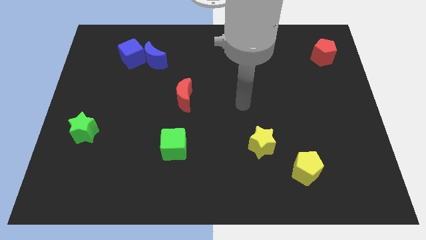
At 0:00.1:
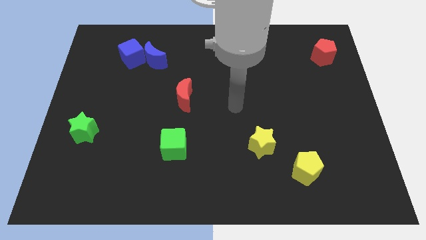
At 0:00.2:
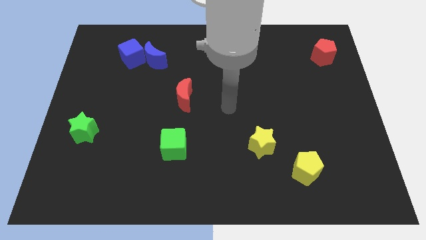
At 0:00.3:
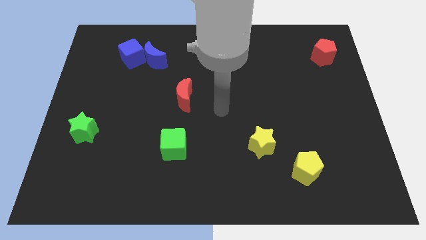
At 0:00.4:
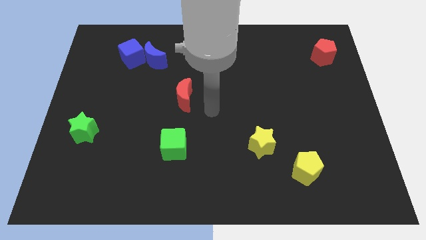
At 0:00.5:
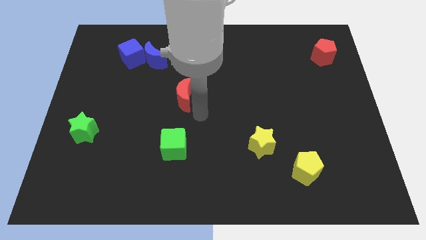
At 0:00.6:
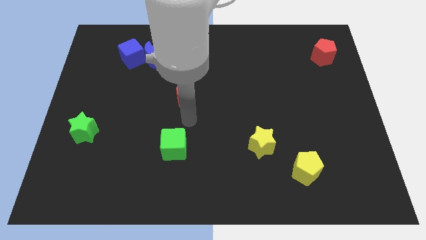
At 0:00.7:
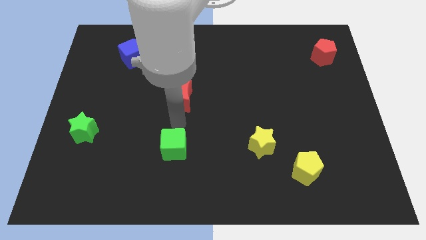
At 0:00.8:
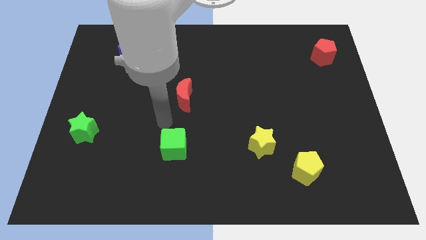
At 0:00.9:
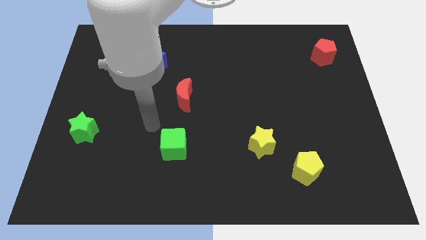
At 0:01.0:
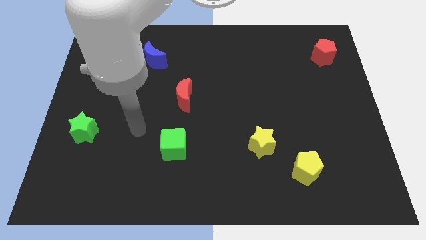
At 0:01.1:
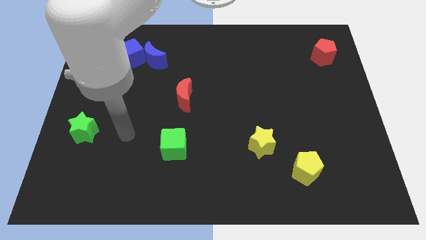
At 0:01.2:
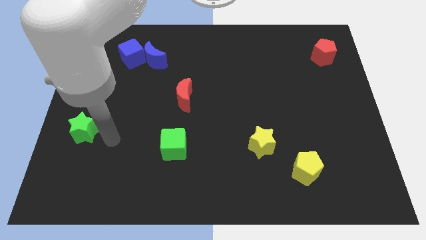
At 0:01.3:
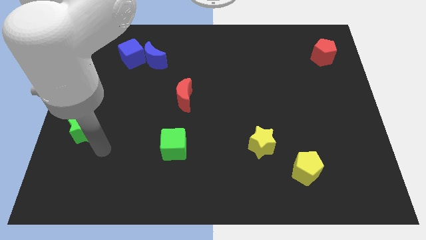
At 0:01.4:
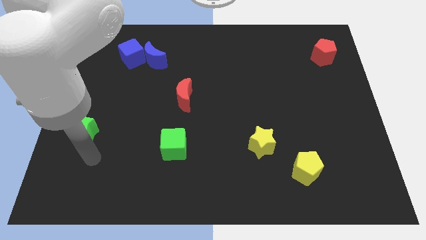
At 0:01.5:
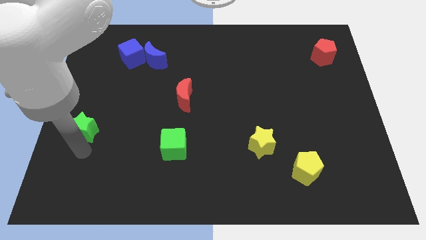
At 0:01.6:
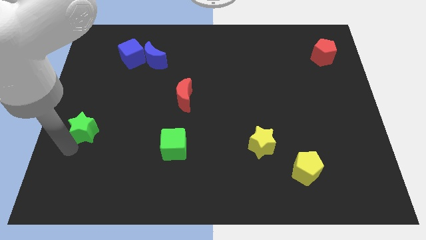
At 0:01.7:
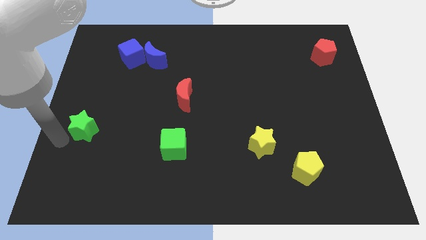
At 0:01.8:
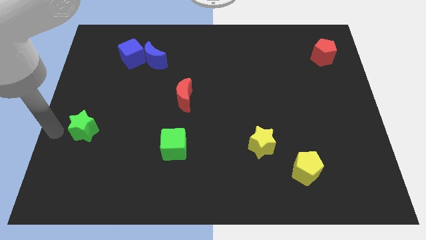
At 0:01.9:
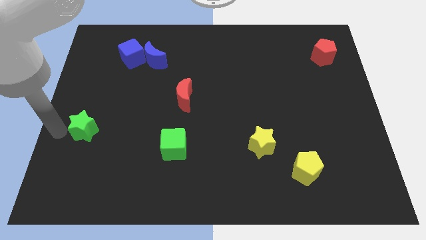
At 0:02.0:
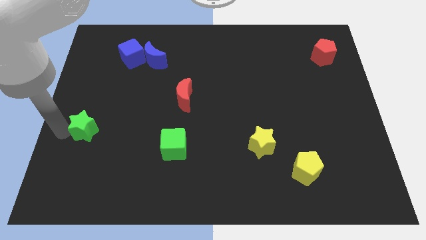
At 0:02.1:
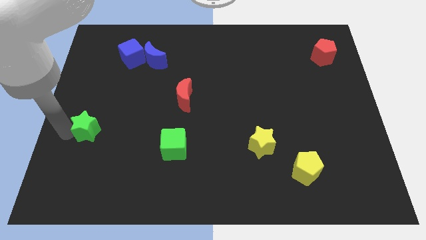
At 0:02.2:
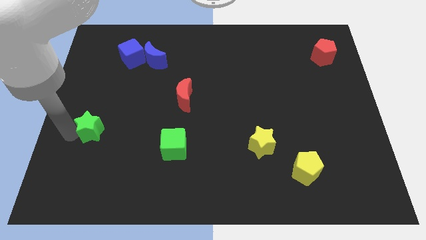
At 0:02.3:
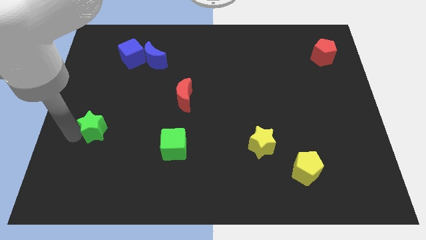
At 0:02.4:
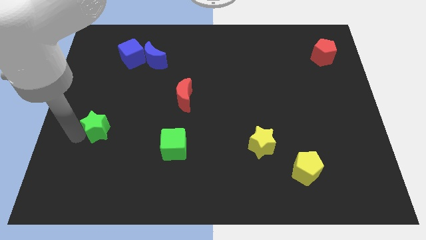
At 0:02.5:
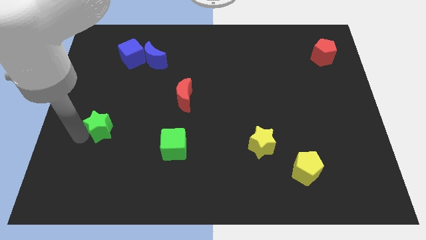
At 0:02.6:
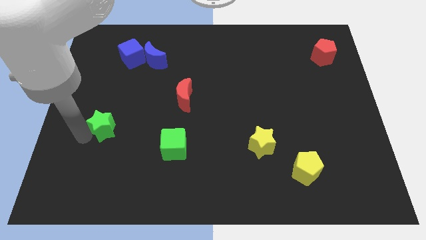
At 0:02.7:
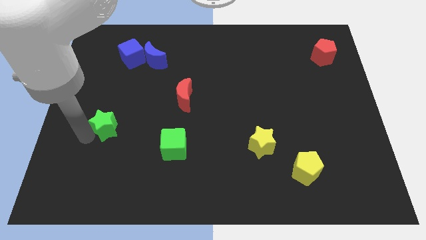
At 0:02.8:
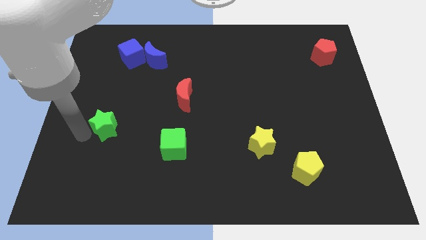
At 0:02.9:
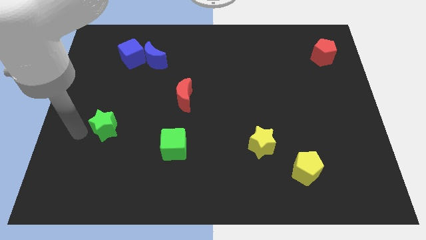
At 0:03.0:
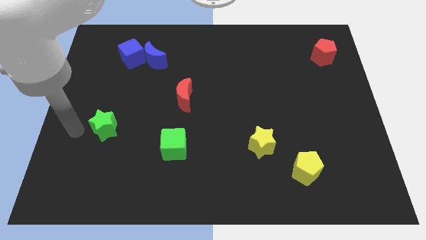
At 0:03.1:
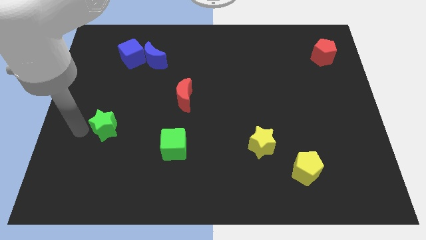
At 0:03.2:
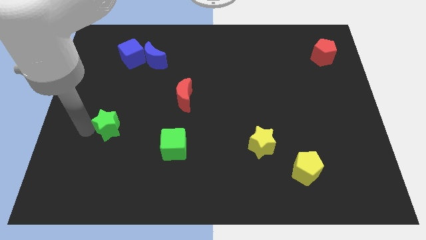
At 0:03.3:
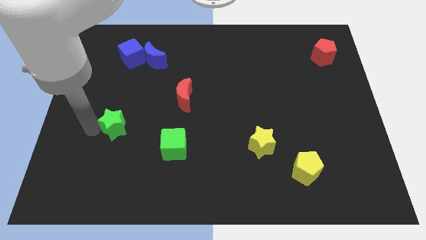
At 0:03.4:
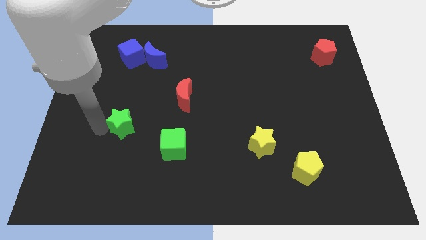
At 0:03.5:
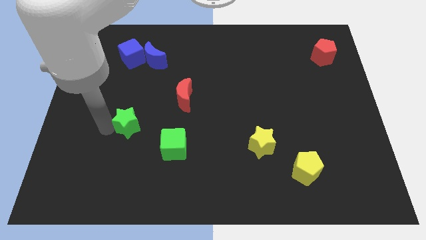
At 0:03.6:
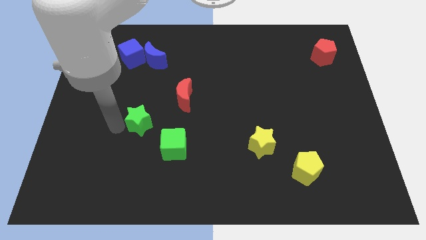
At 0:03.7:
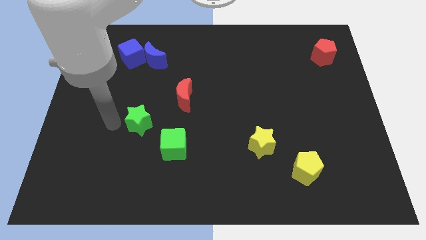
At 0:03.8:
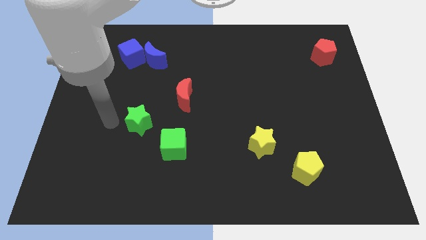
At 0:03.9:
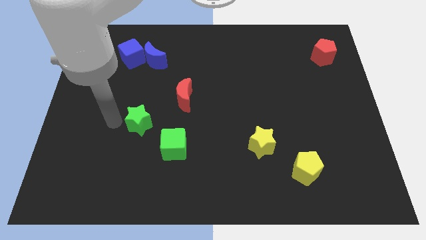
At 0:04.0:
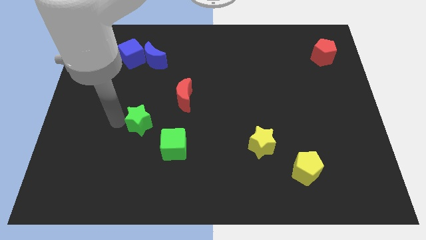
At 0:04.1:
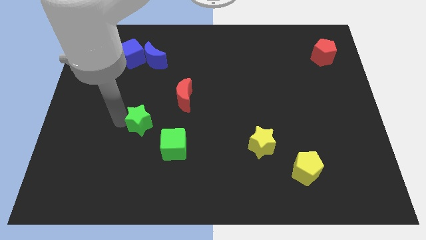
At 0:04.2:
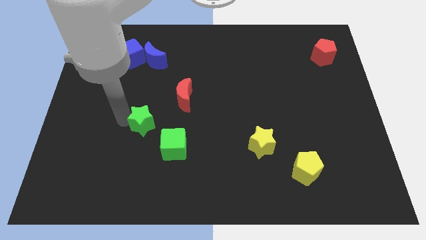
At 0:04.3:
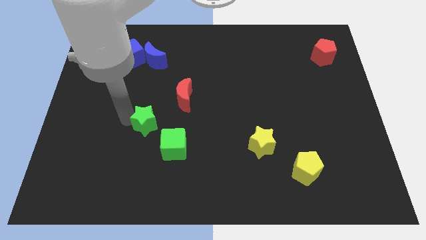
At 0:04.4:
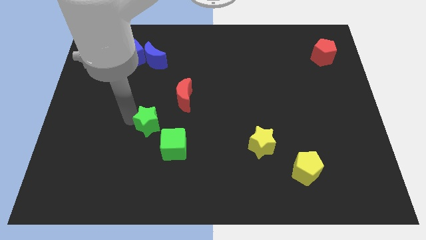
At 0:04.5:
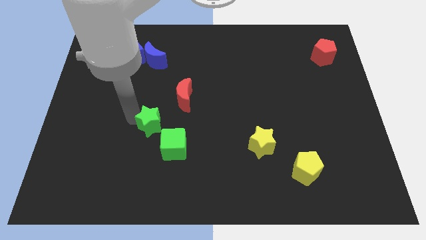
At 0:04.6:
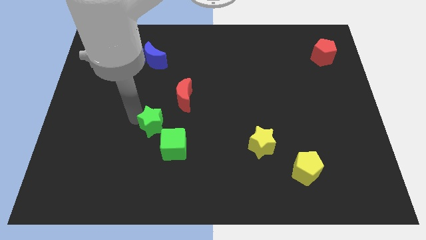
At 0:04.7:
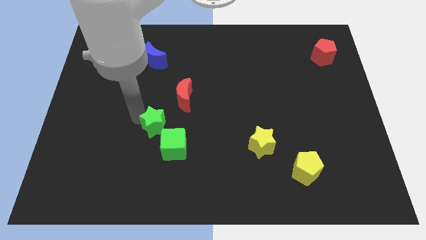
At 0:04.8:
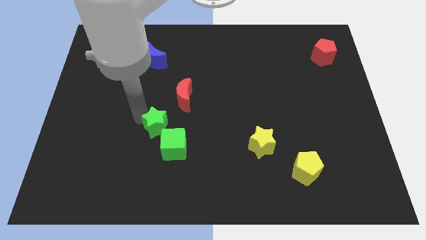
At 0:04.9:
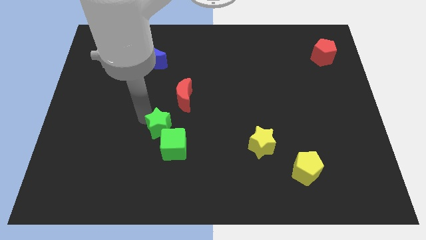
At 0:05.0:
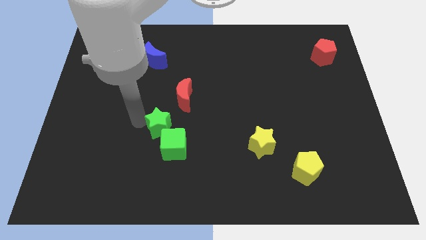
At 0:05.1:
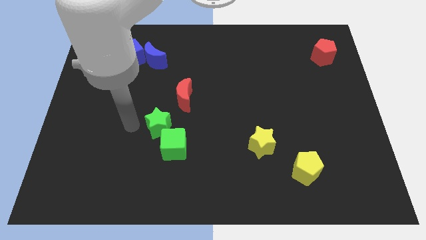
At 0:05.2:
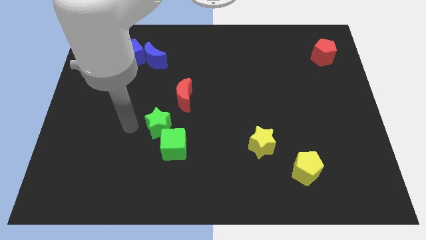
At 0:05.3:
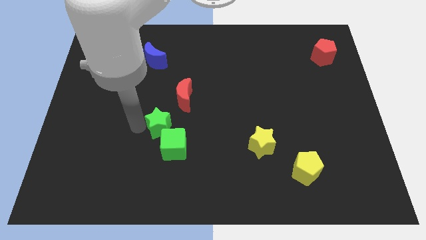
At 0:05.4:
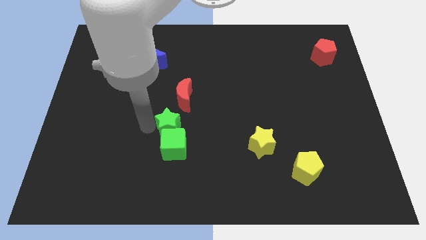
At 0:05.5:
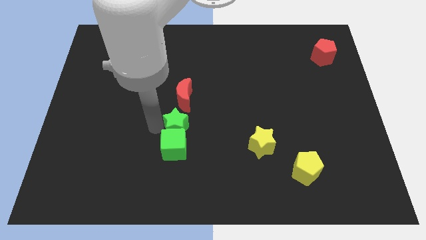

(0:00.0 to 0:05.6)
move the green star diagonally up and to the right of the green cube

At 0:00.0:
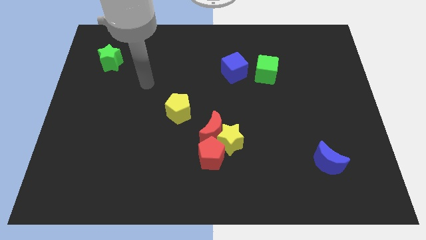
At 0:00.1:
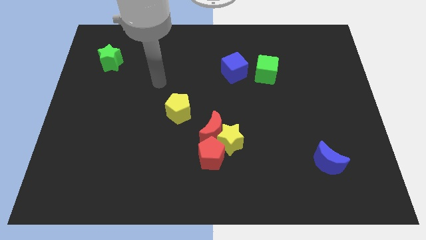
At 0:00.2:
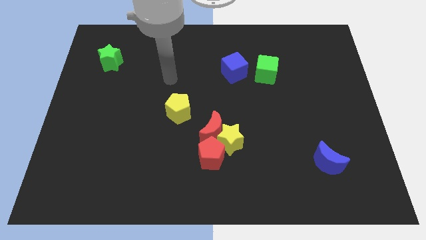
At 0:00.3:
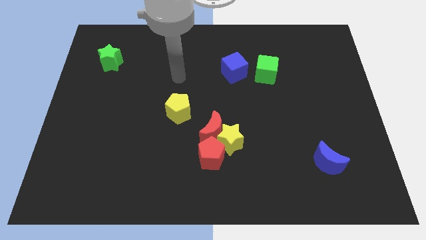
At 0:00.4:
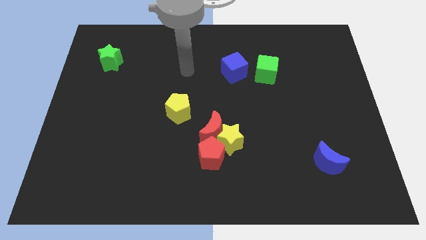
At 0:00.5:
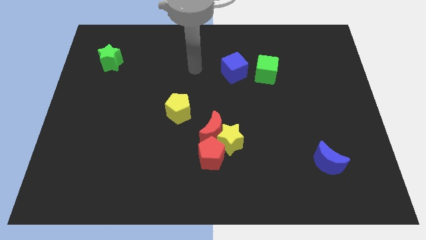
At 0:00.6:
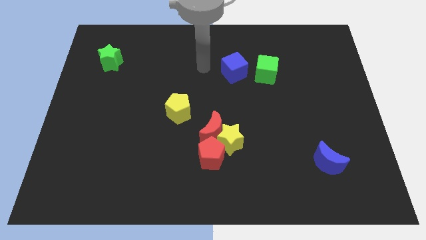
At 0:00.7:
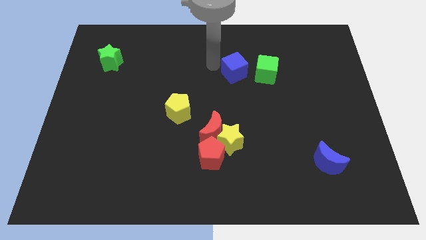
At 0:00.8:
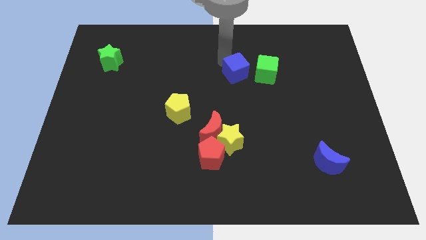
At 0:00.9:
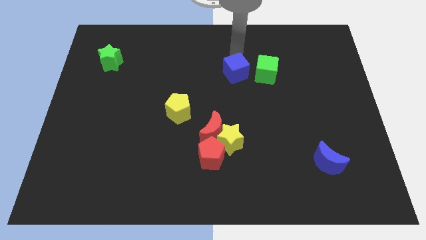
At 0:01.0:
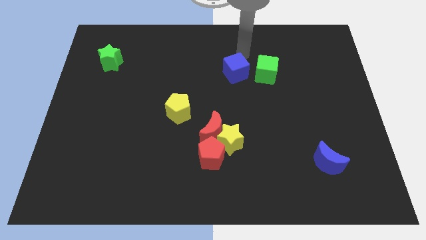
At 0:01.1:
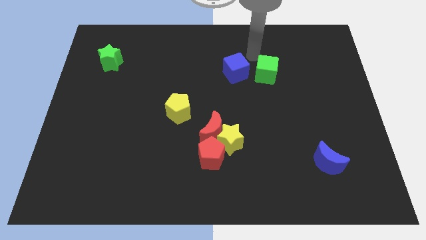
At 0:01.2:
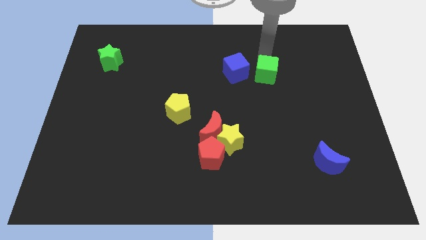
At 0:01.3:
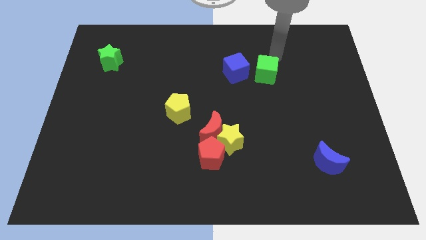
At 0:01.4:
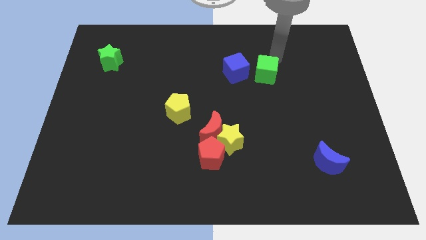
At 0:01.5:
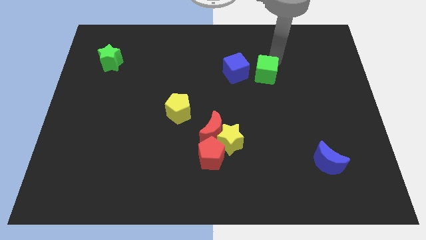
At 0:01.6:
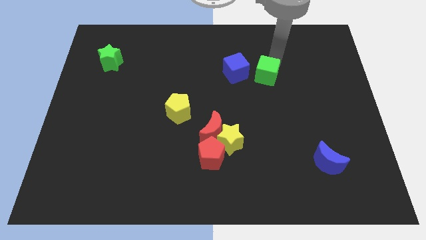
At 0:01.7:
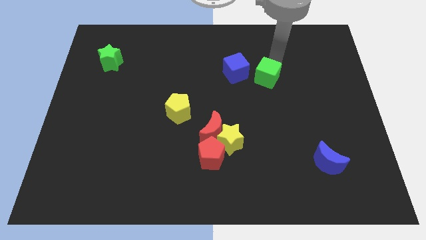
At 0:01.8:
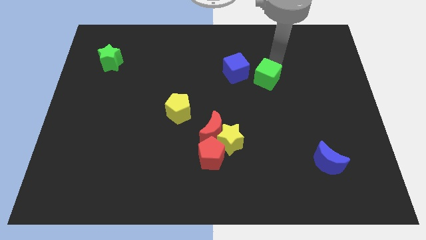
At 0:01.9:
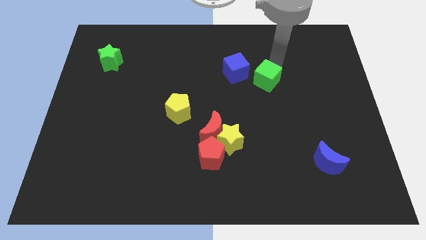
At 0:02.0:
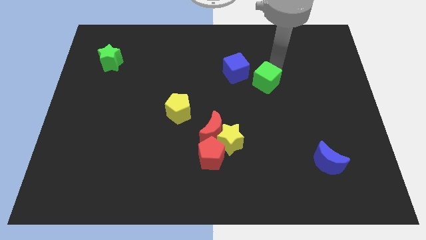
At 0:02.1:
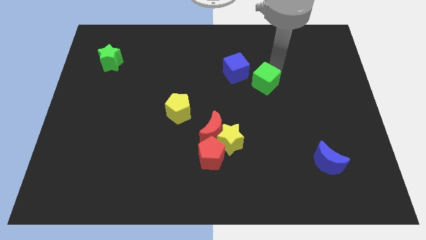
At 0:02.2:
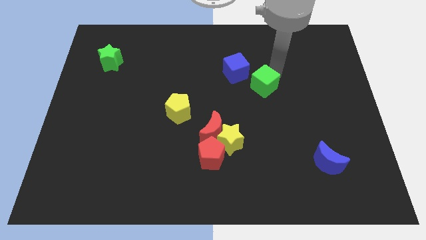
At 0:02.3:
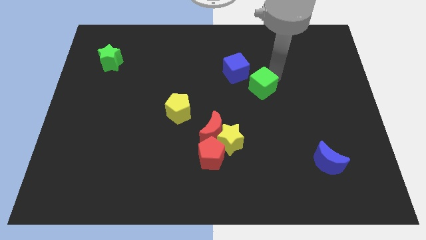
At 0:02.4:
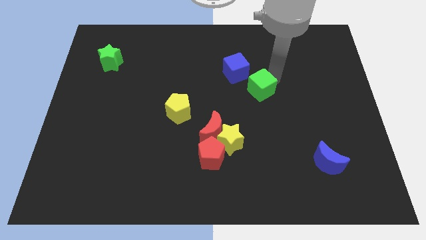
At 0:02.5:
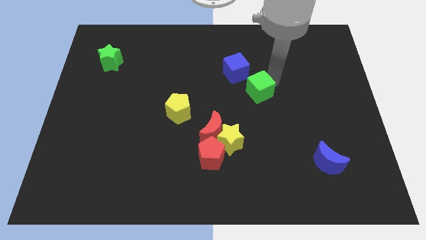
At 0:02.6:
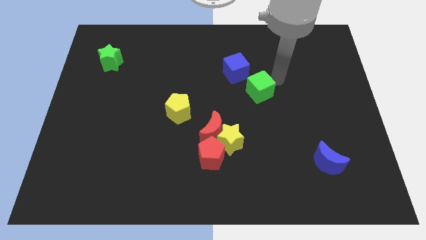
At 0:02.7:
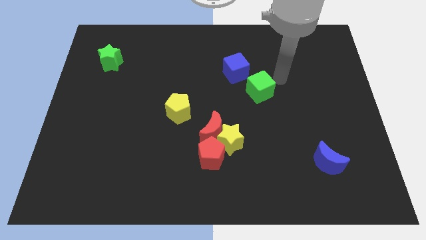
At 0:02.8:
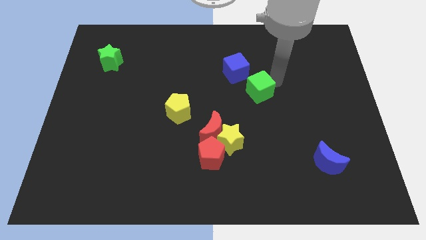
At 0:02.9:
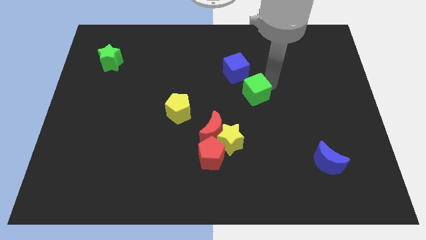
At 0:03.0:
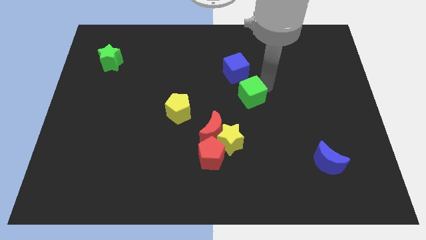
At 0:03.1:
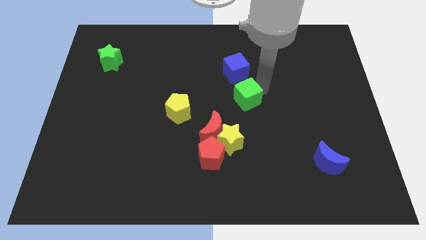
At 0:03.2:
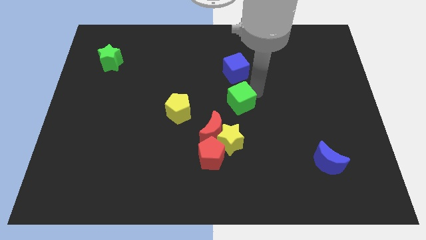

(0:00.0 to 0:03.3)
push the green cube just right of the yellow pentagon
